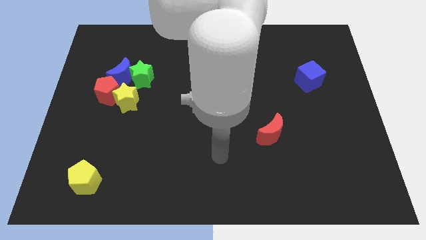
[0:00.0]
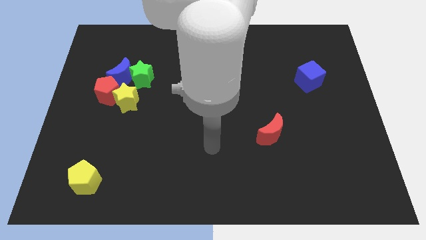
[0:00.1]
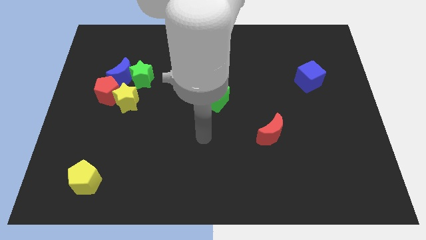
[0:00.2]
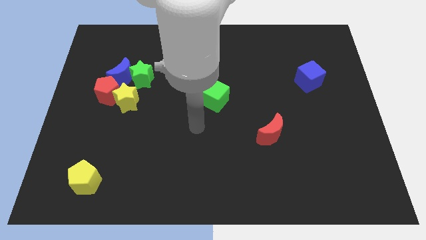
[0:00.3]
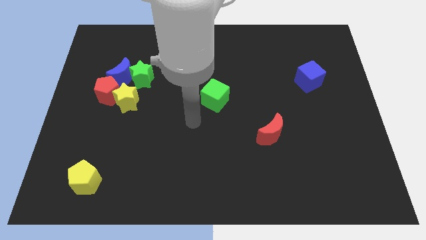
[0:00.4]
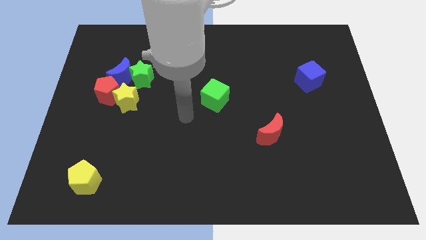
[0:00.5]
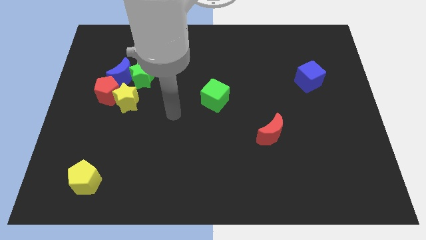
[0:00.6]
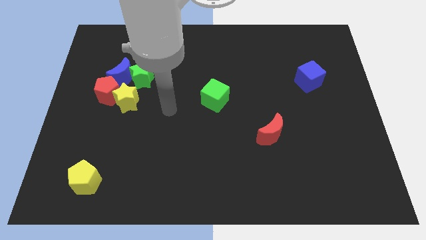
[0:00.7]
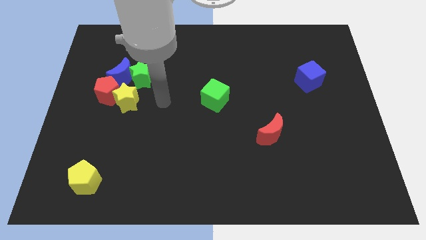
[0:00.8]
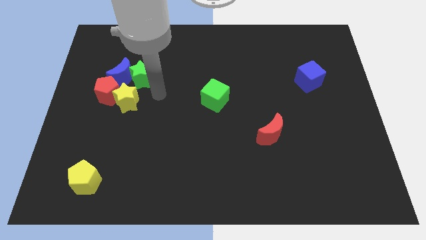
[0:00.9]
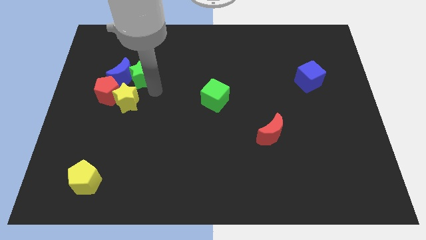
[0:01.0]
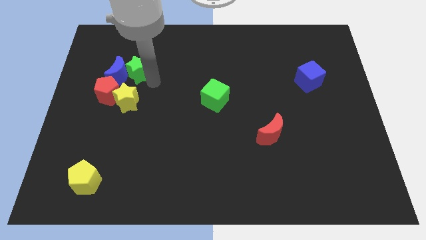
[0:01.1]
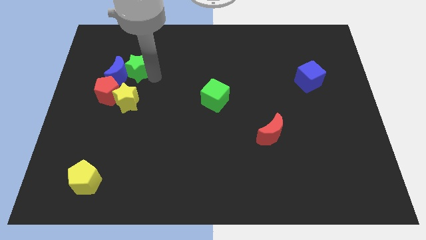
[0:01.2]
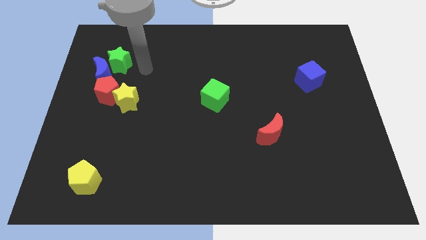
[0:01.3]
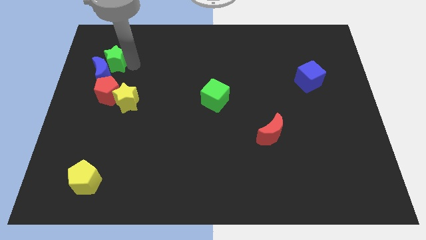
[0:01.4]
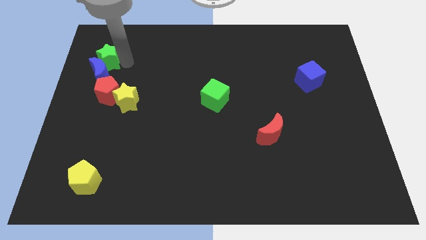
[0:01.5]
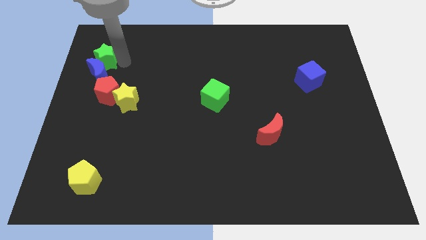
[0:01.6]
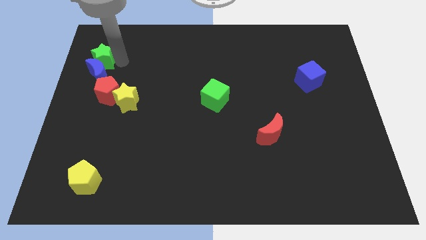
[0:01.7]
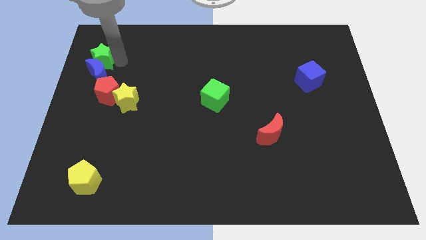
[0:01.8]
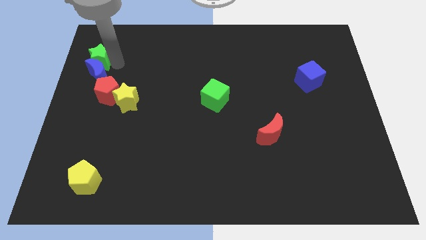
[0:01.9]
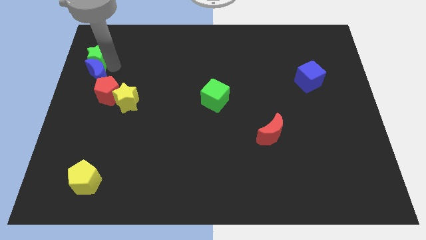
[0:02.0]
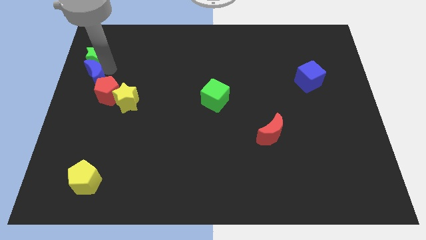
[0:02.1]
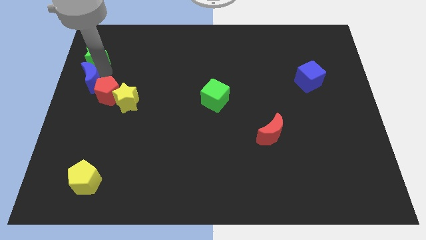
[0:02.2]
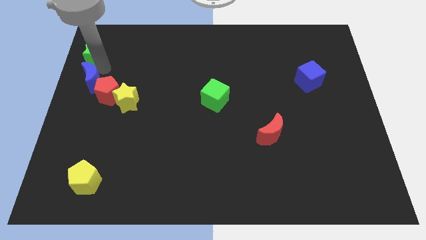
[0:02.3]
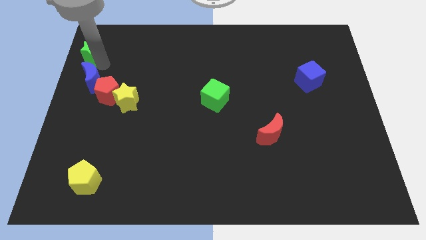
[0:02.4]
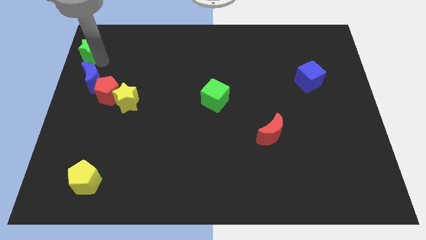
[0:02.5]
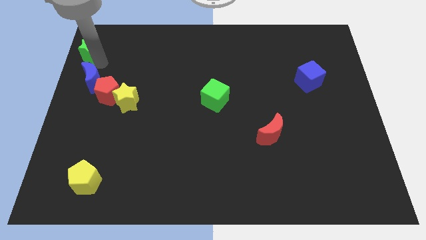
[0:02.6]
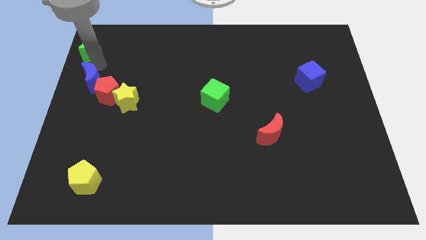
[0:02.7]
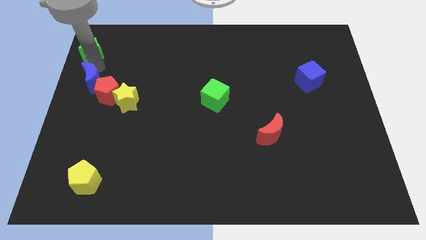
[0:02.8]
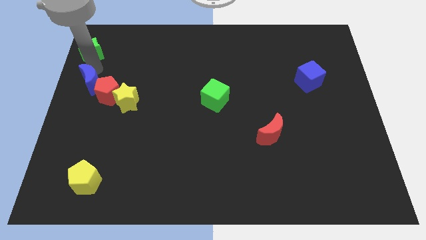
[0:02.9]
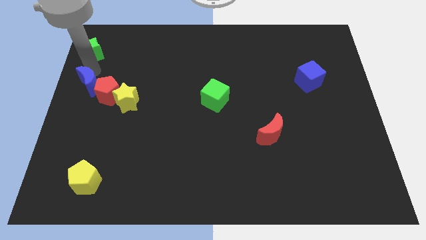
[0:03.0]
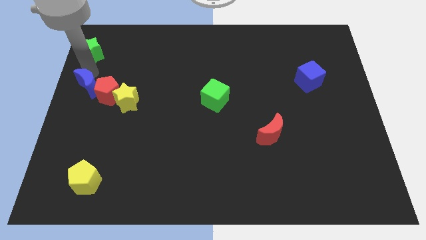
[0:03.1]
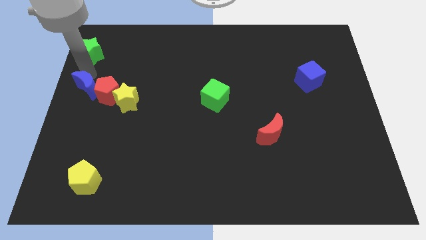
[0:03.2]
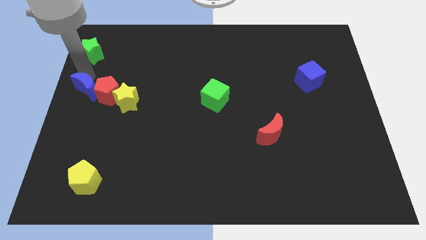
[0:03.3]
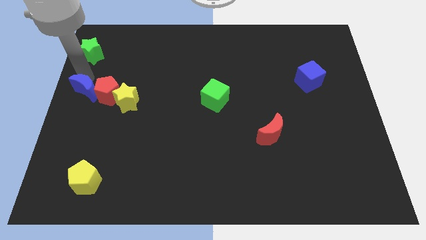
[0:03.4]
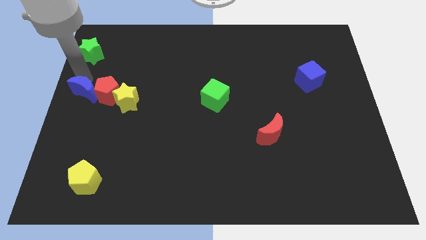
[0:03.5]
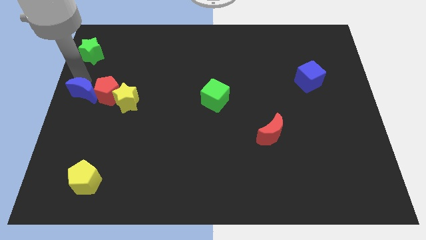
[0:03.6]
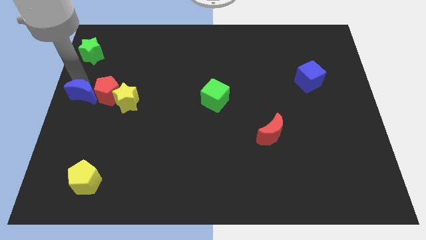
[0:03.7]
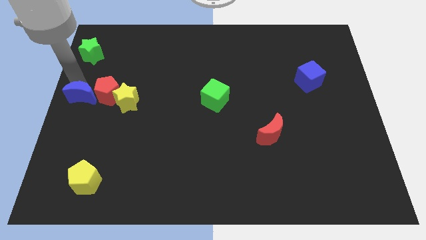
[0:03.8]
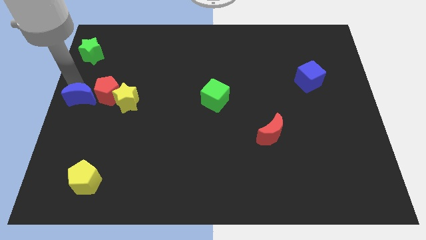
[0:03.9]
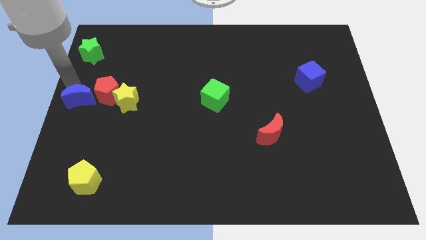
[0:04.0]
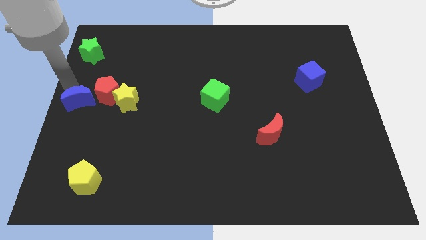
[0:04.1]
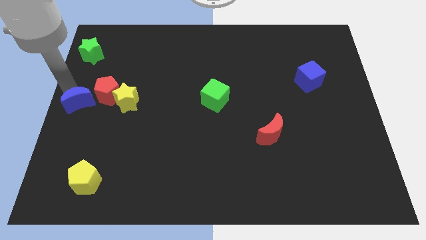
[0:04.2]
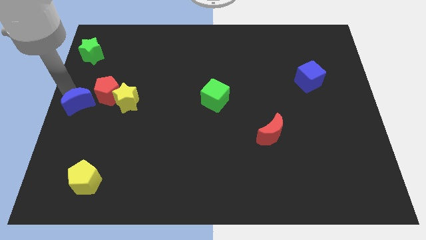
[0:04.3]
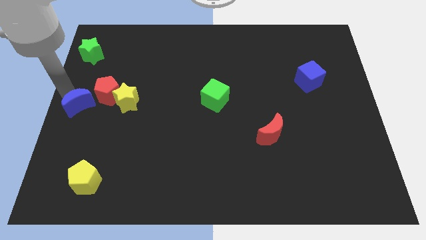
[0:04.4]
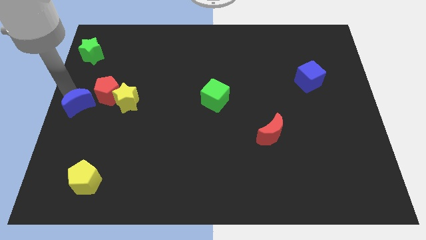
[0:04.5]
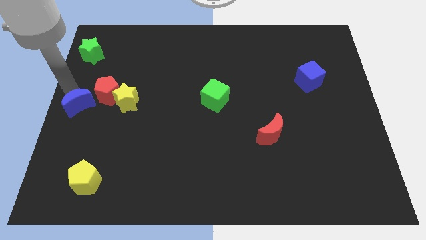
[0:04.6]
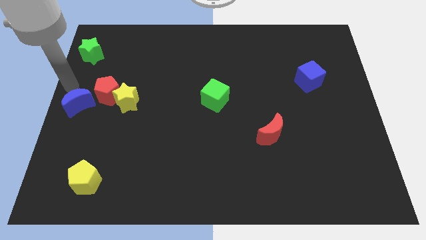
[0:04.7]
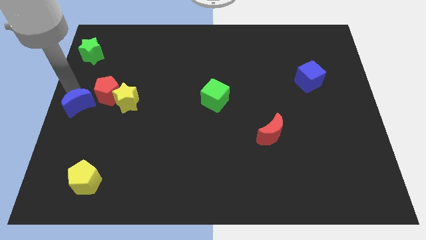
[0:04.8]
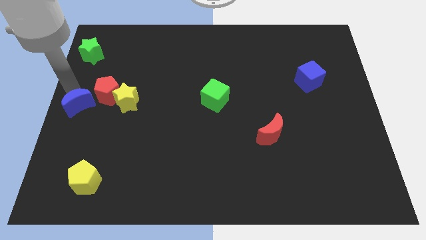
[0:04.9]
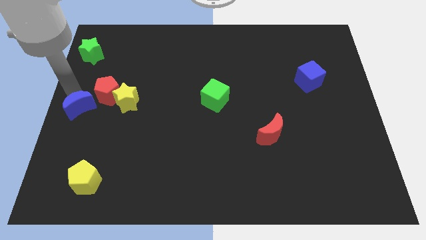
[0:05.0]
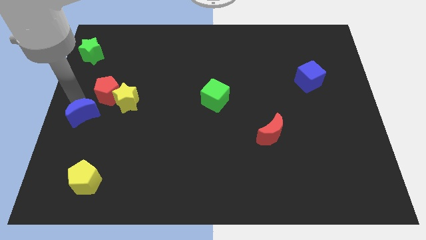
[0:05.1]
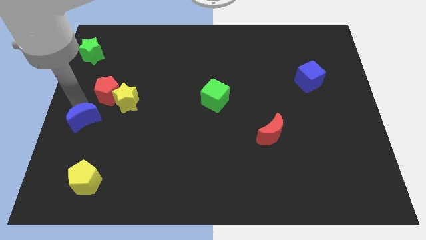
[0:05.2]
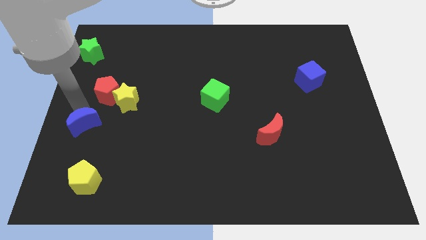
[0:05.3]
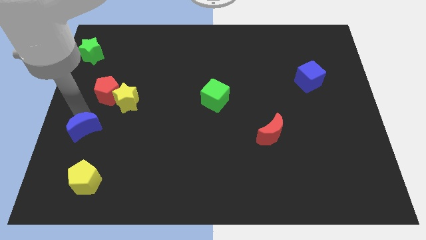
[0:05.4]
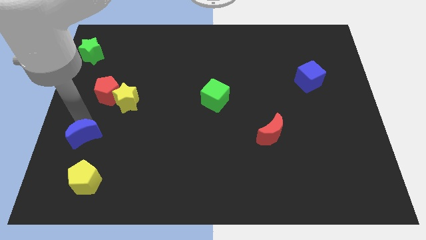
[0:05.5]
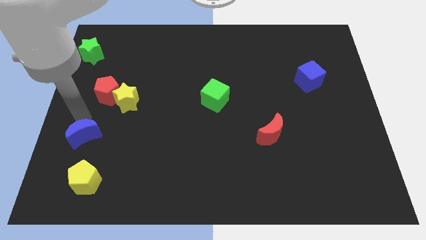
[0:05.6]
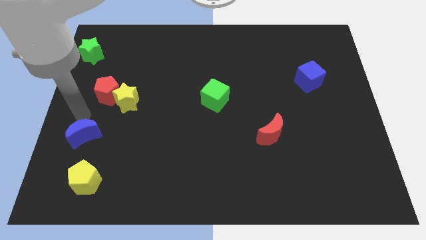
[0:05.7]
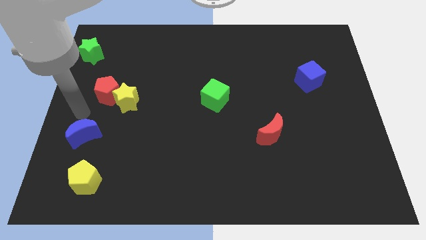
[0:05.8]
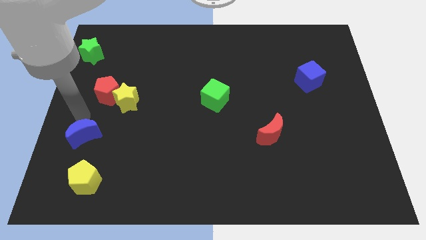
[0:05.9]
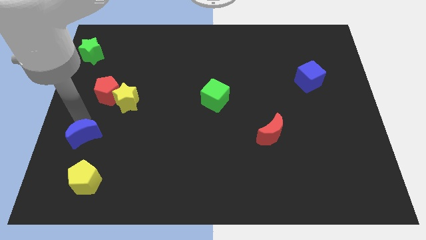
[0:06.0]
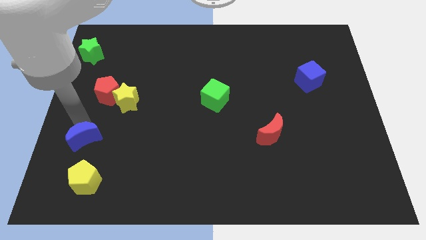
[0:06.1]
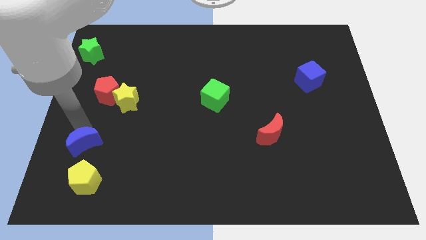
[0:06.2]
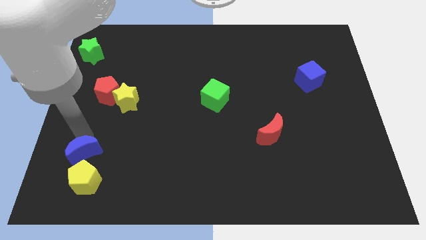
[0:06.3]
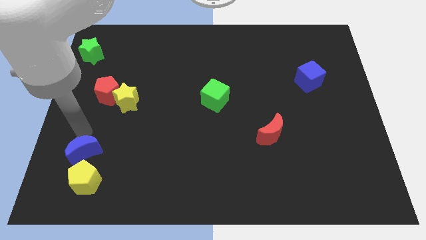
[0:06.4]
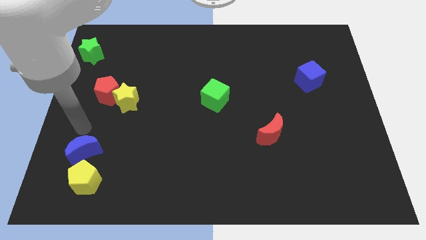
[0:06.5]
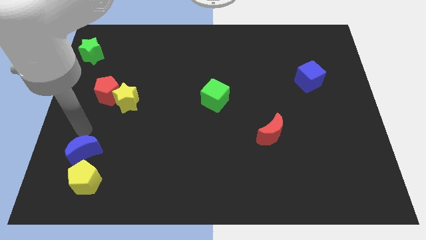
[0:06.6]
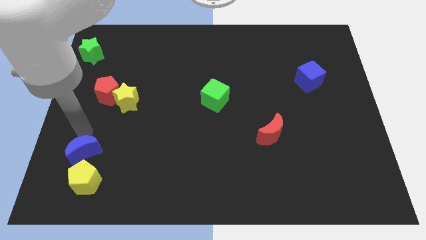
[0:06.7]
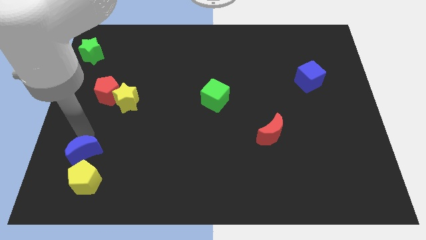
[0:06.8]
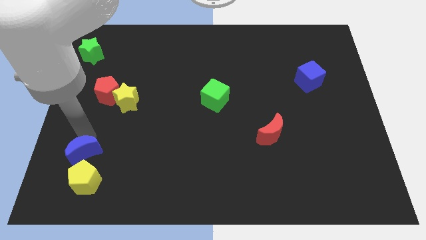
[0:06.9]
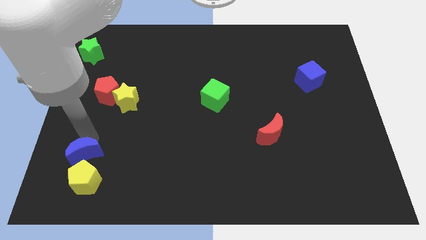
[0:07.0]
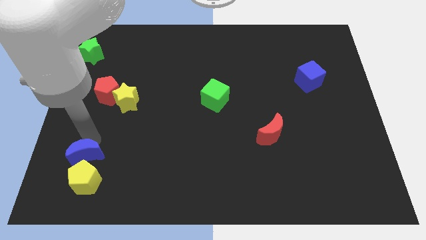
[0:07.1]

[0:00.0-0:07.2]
move the blue moon next to the yellow pentagon

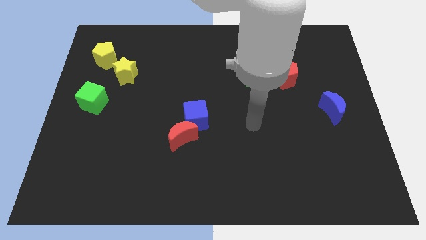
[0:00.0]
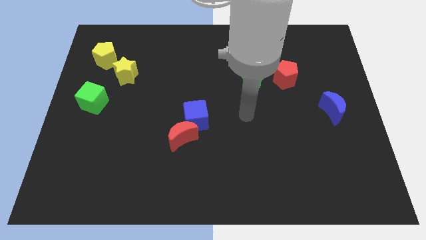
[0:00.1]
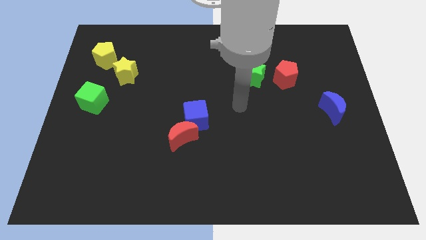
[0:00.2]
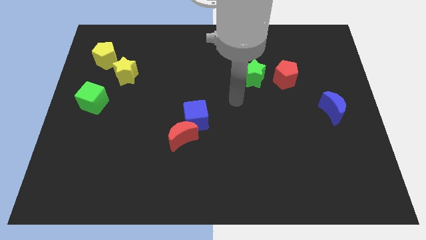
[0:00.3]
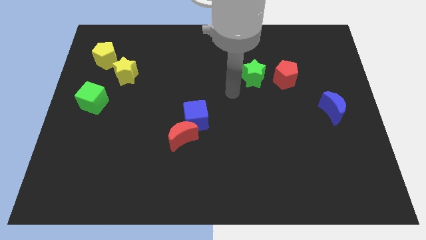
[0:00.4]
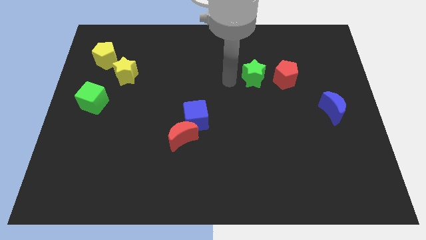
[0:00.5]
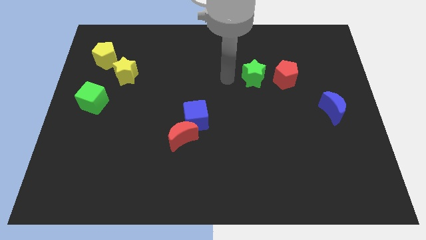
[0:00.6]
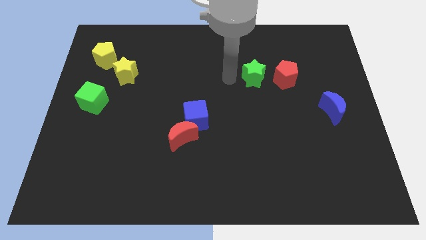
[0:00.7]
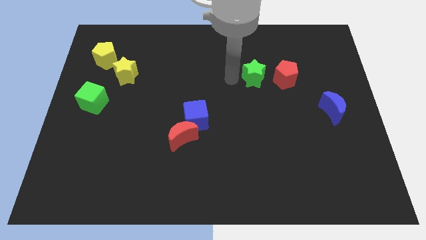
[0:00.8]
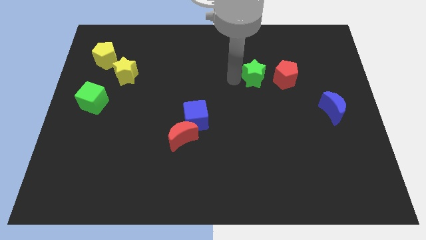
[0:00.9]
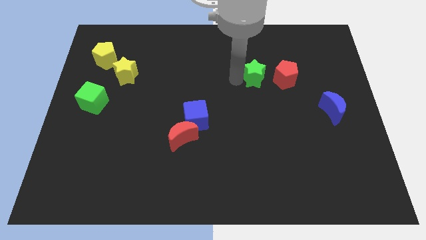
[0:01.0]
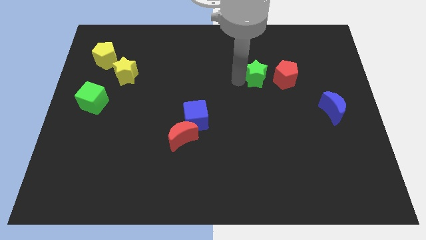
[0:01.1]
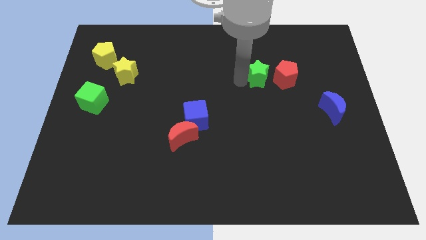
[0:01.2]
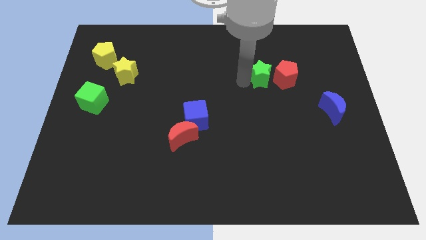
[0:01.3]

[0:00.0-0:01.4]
push the green star close to the red pentagon
